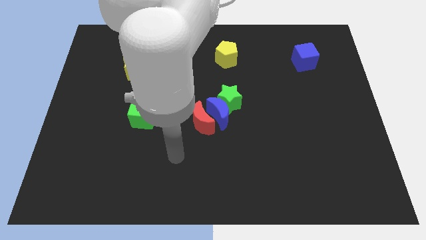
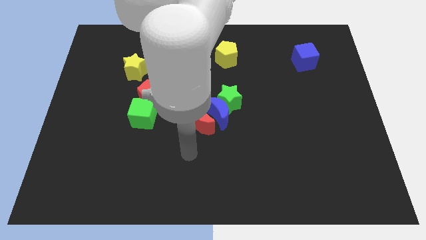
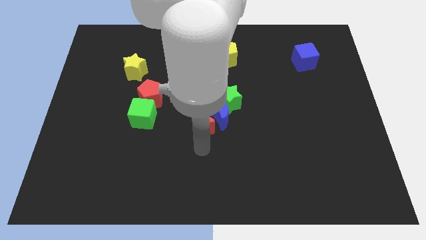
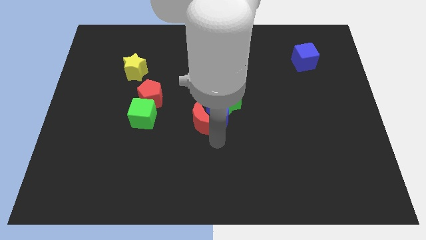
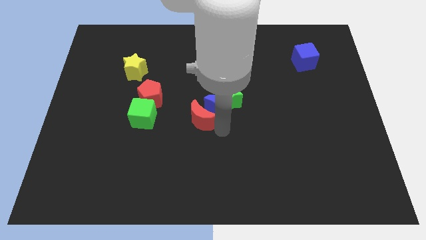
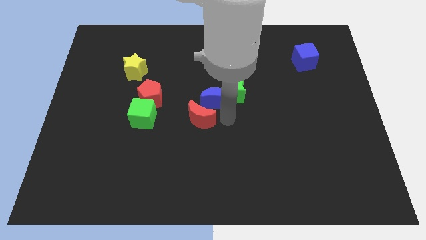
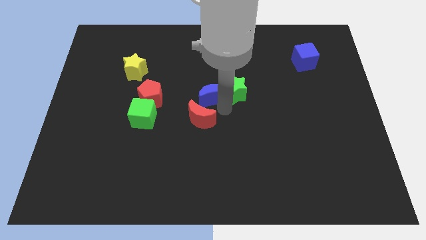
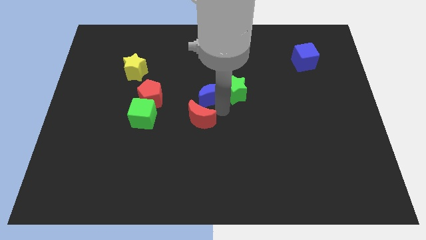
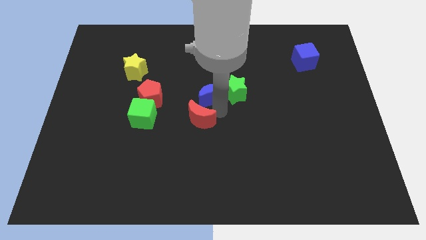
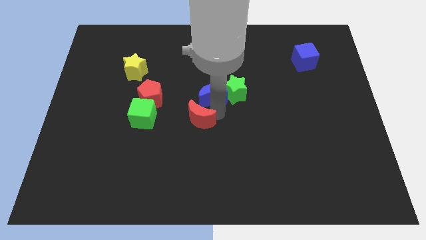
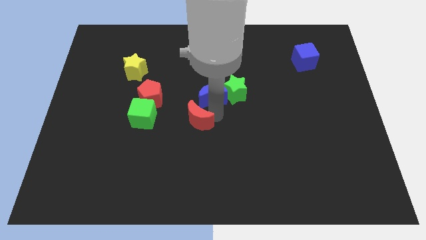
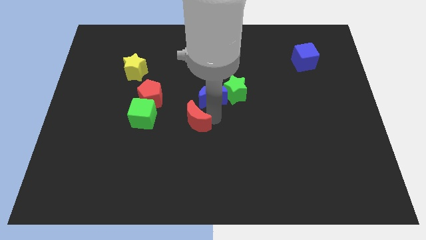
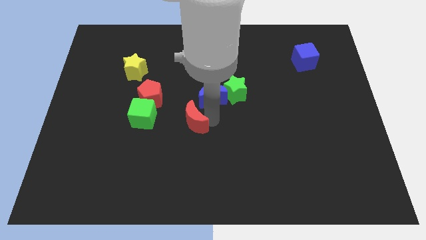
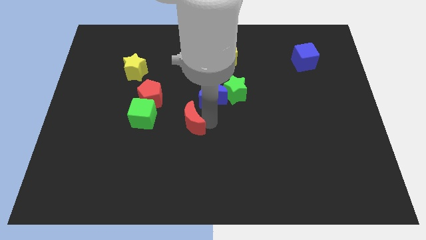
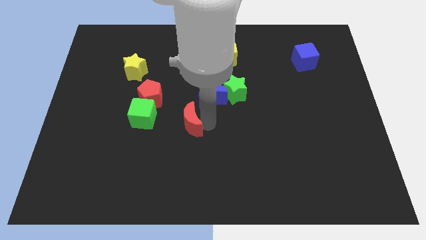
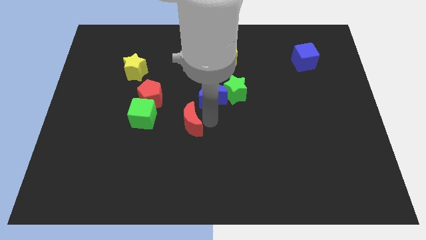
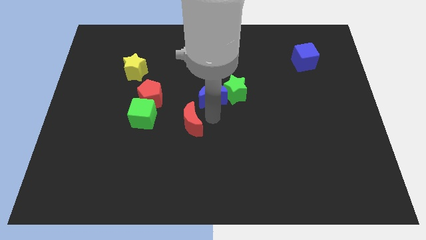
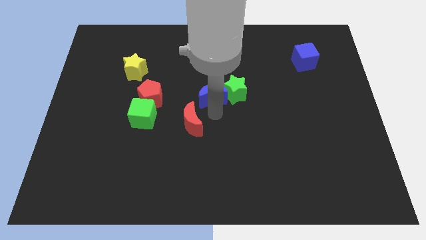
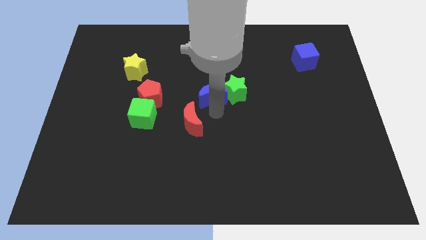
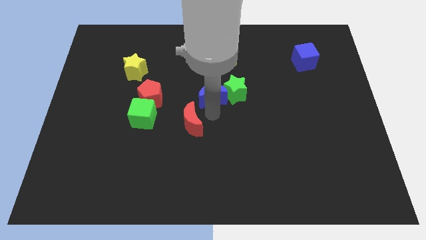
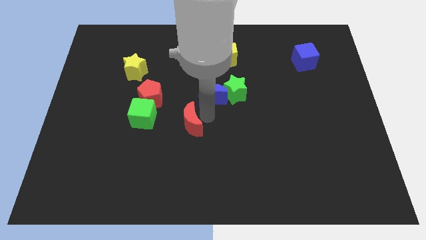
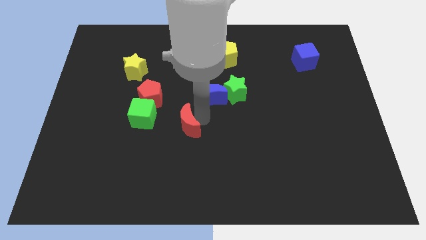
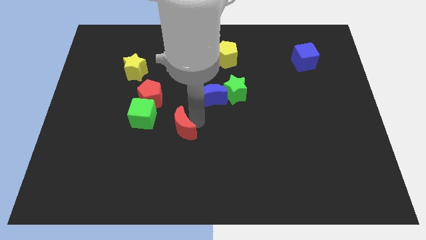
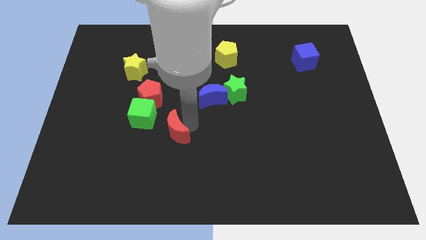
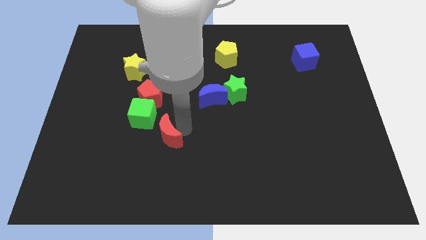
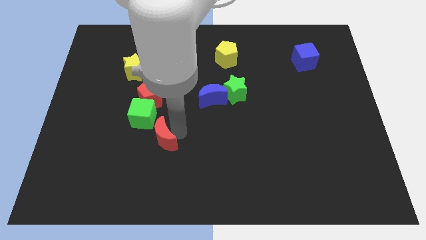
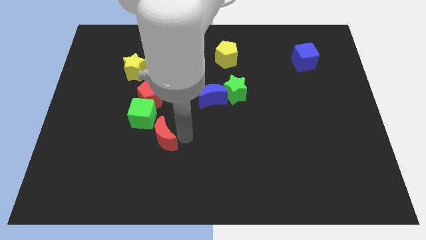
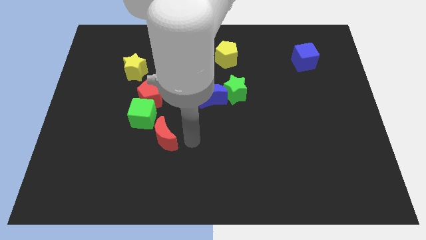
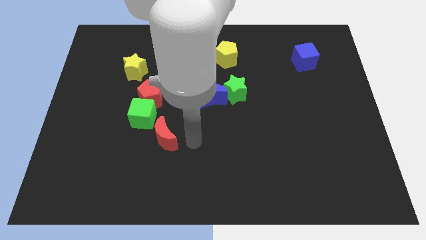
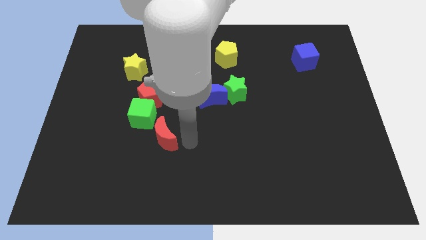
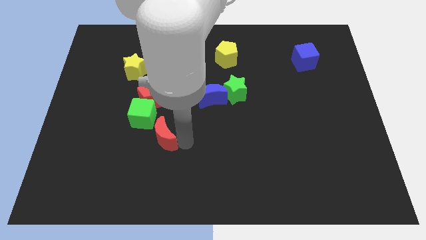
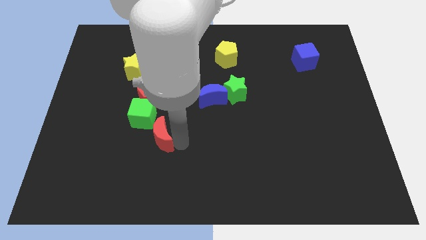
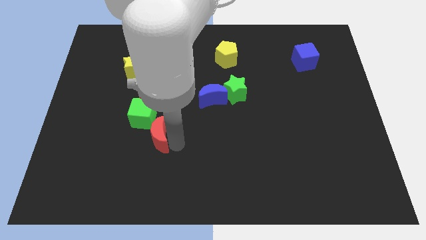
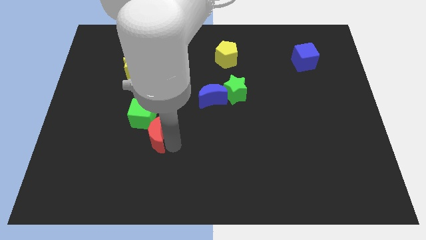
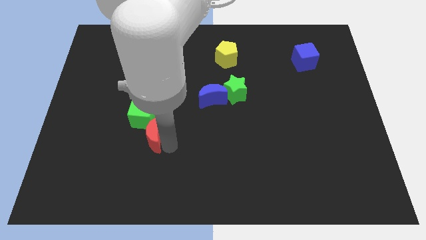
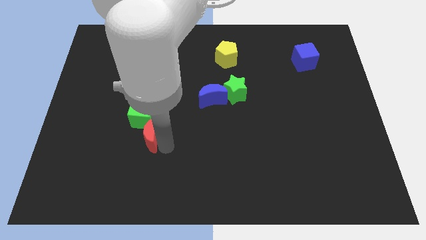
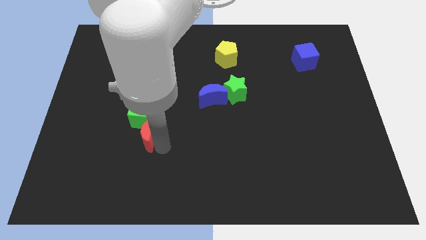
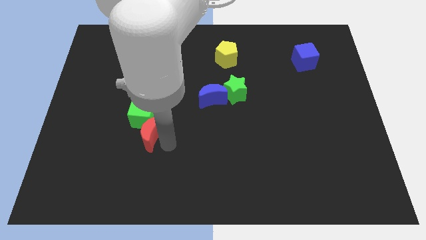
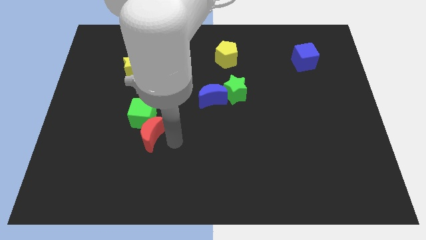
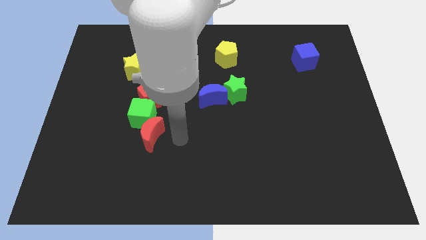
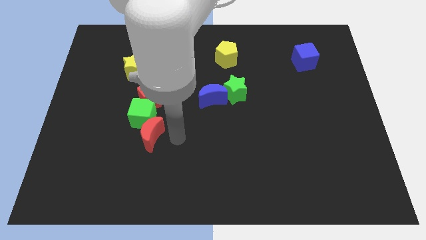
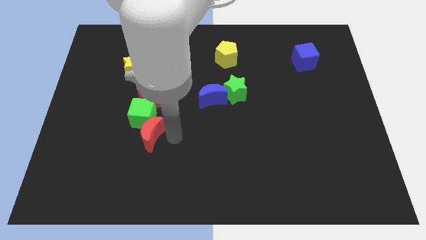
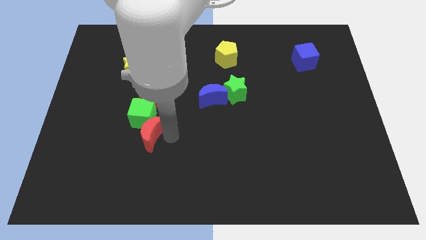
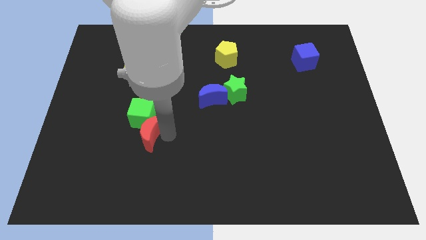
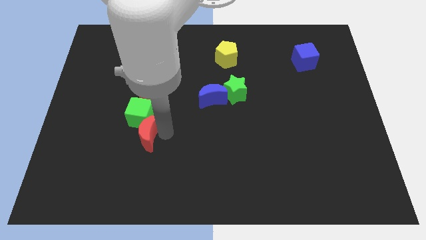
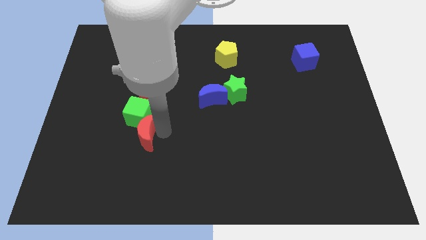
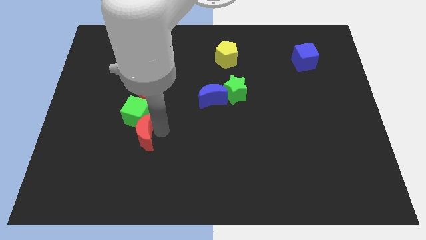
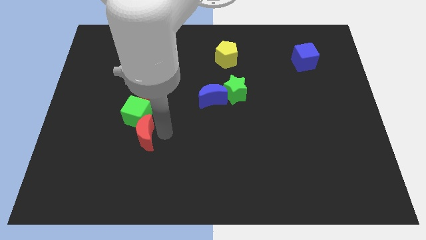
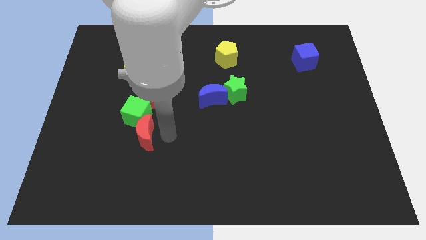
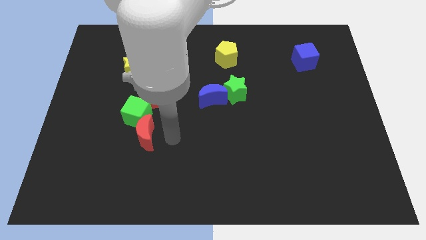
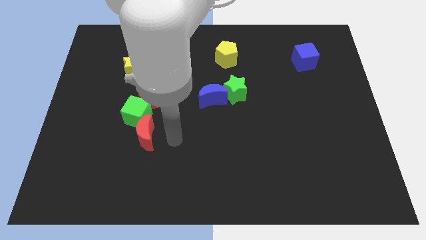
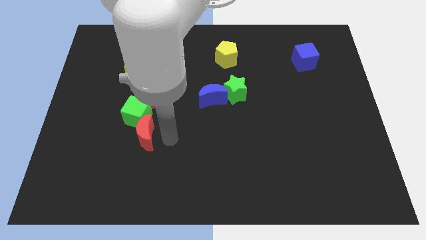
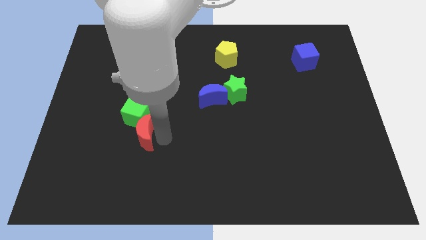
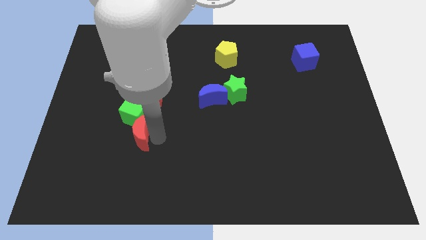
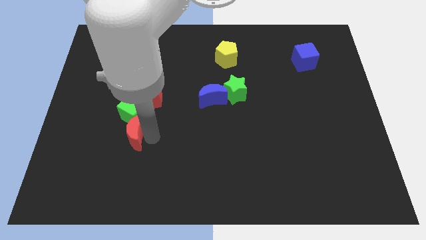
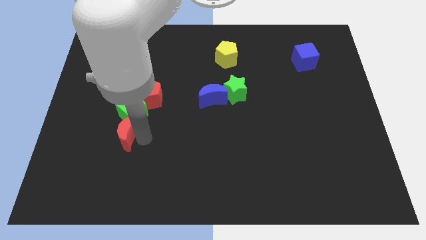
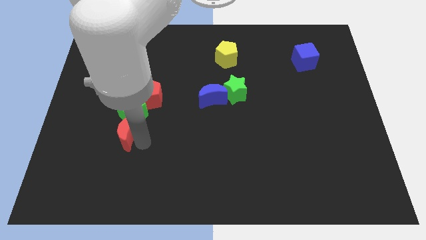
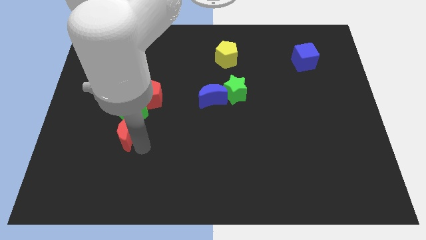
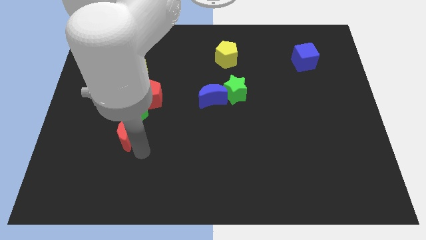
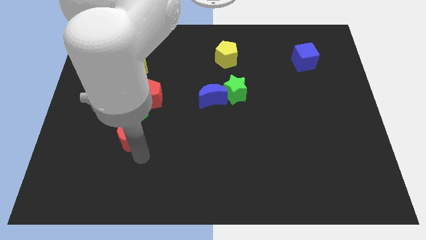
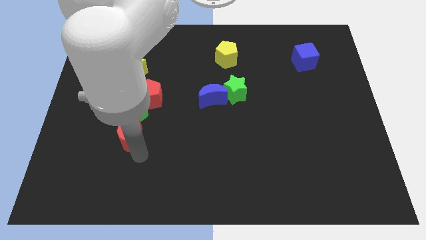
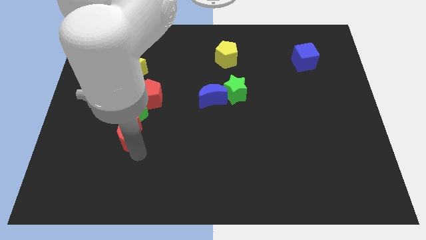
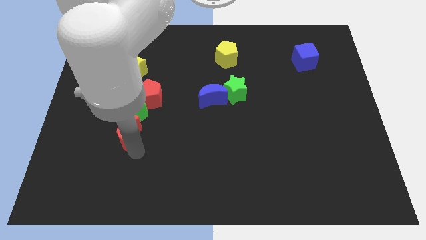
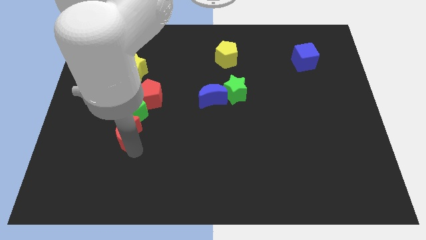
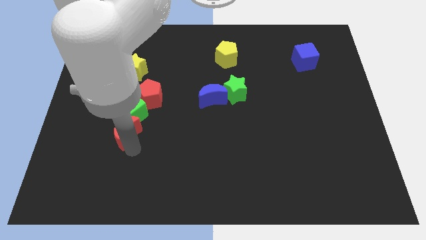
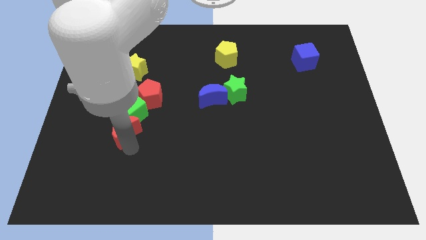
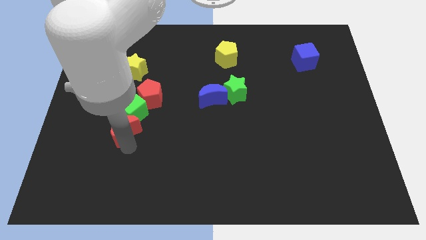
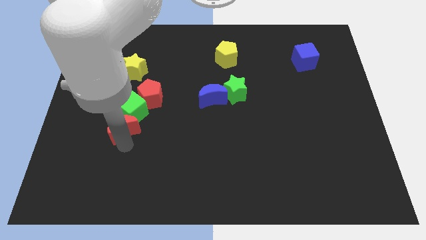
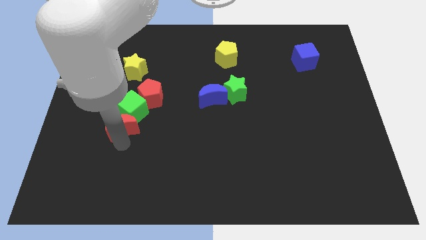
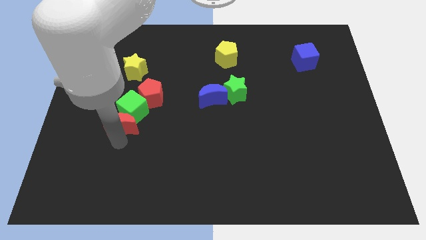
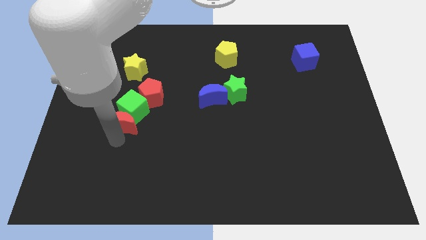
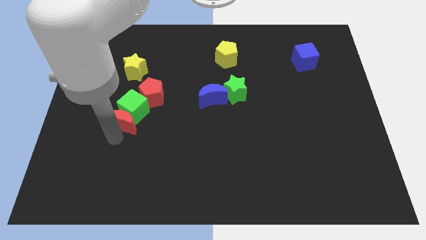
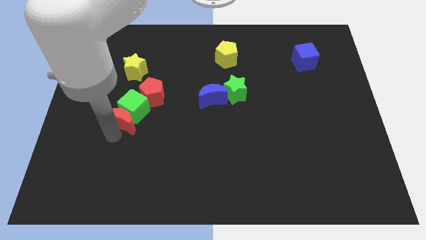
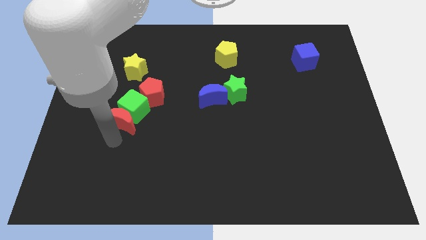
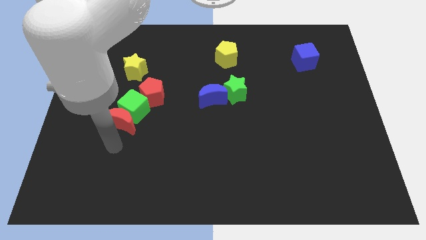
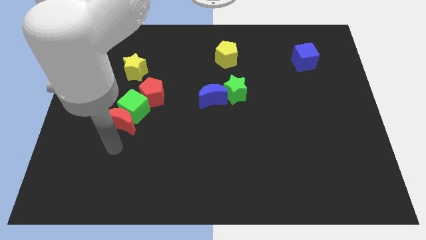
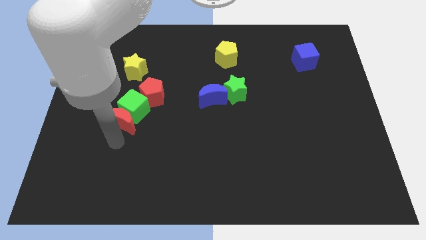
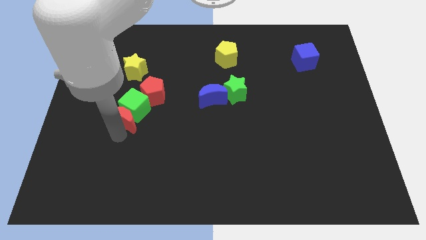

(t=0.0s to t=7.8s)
push the red moon to the bottom of the yellow star

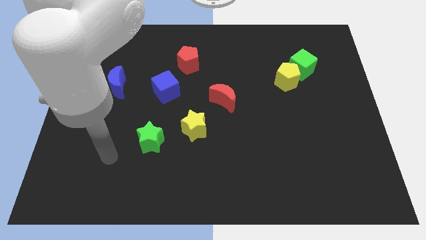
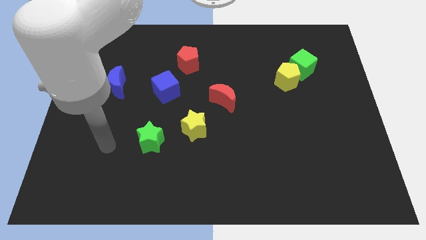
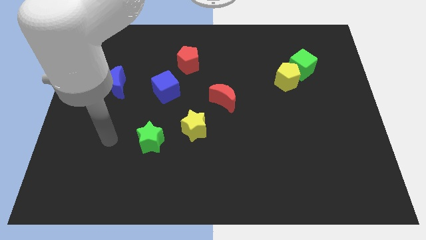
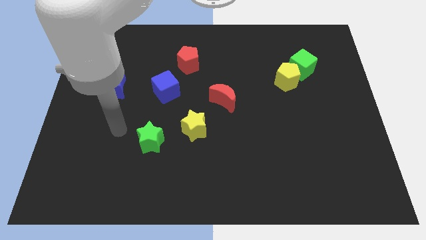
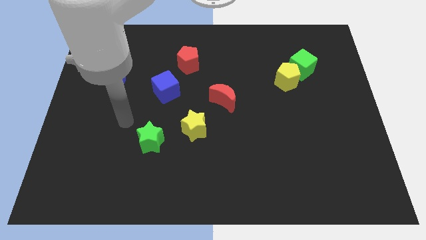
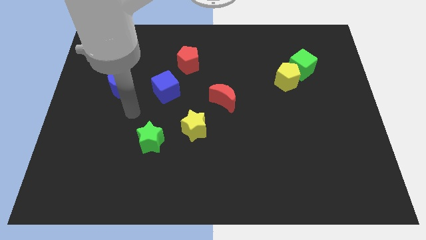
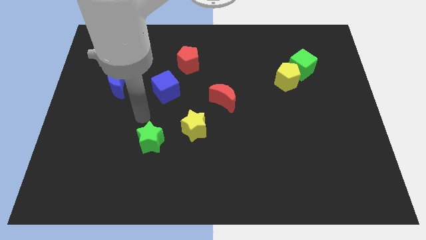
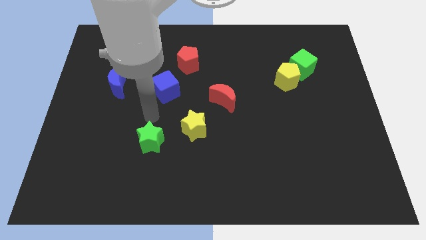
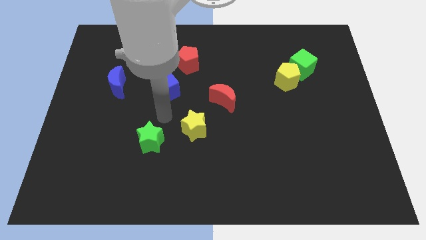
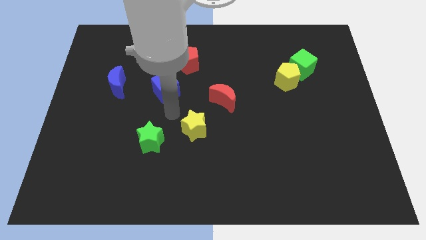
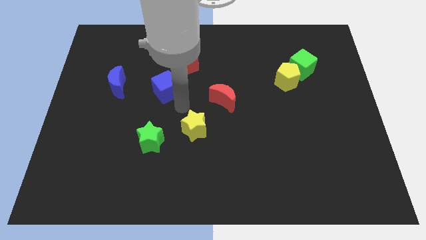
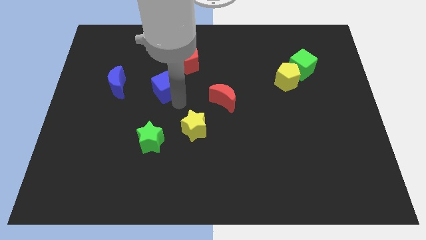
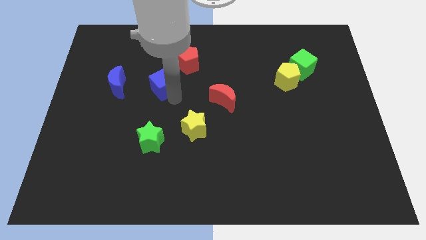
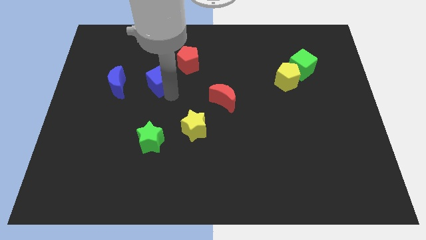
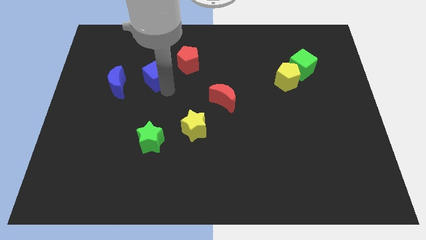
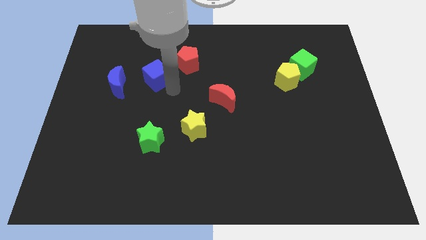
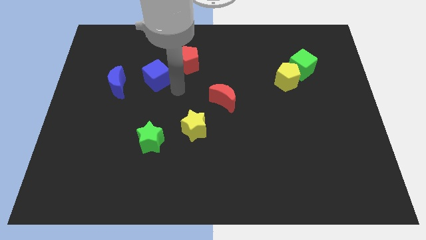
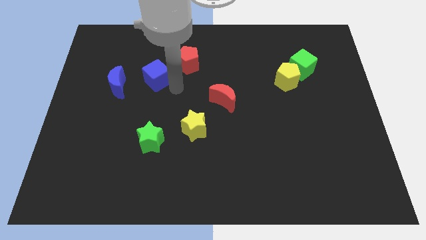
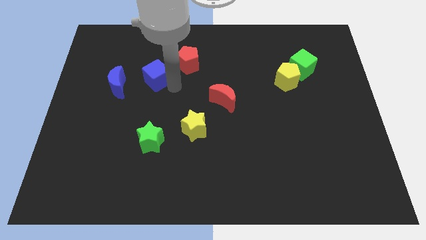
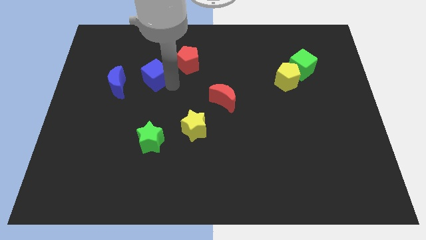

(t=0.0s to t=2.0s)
move the blue cube to the top right of the blue moon
